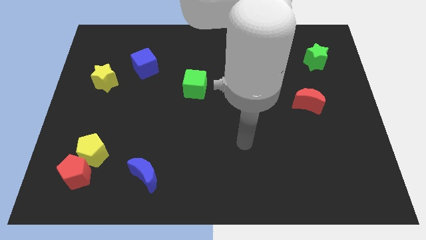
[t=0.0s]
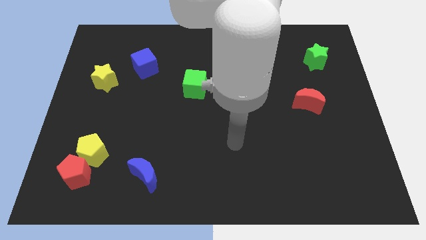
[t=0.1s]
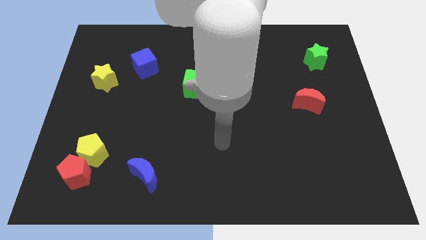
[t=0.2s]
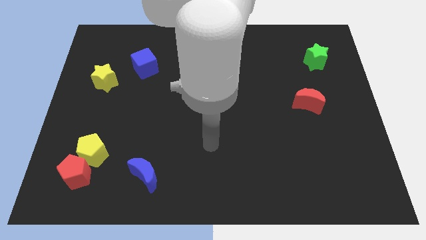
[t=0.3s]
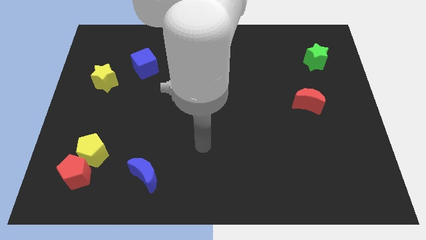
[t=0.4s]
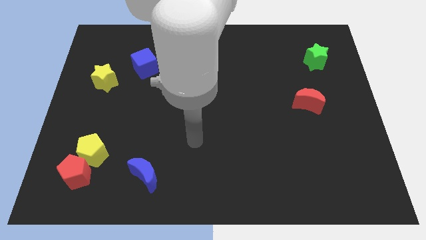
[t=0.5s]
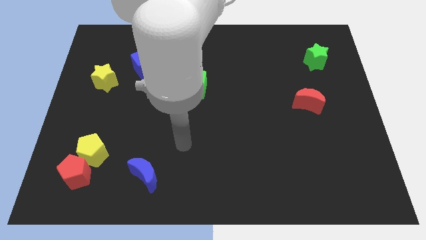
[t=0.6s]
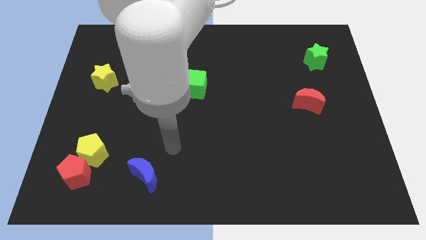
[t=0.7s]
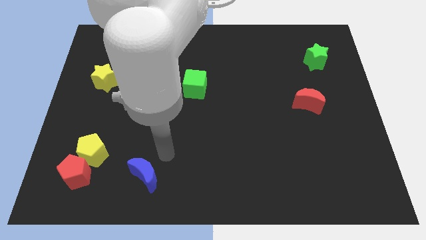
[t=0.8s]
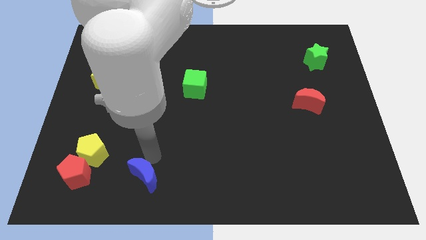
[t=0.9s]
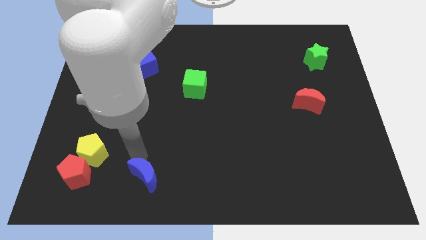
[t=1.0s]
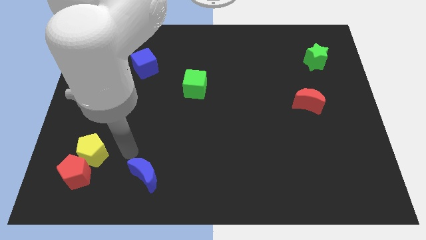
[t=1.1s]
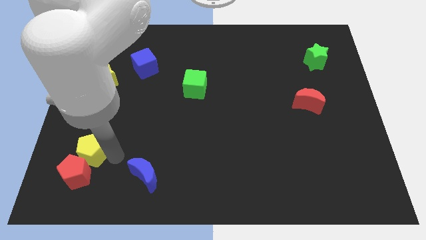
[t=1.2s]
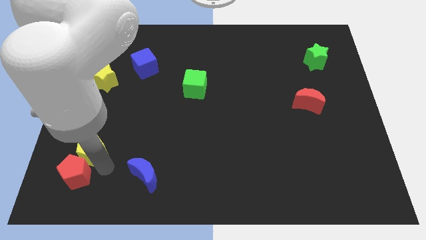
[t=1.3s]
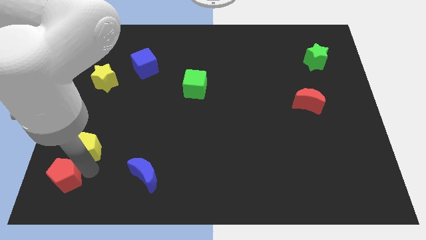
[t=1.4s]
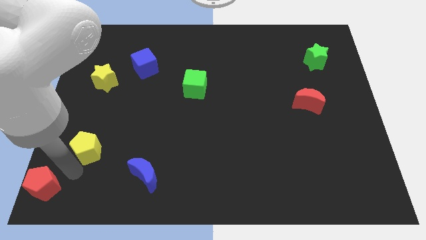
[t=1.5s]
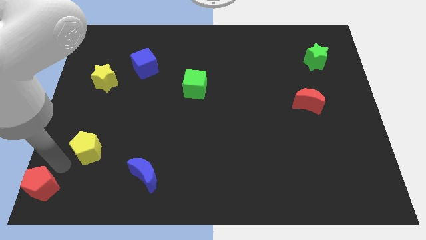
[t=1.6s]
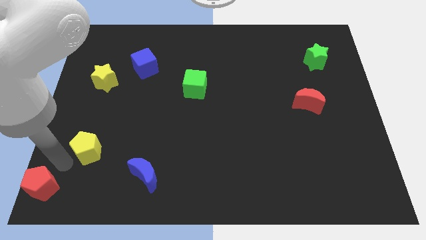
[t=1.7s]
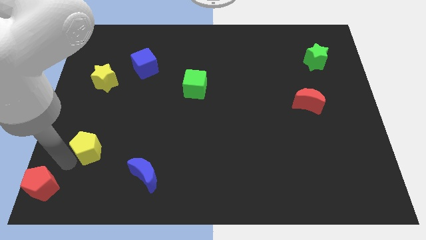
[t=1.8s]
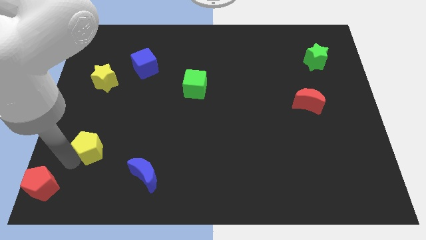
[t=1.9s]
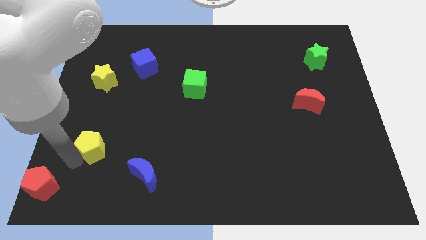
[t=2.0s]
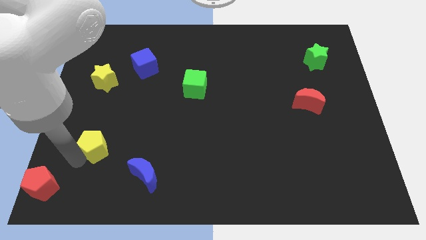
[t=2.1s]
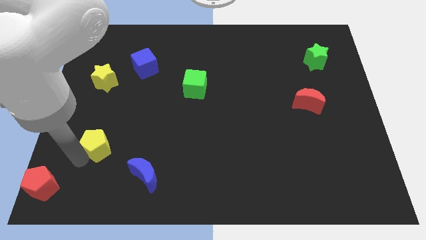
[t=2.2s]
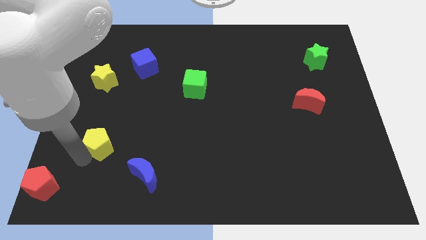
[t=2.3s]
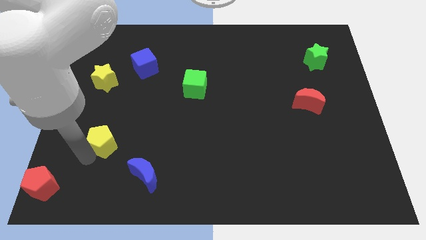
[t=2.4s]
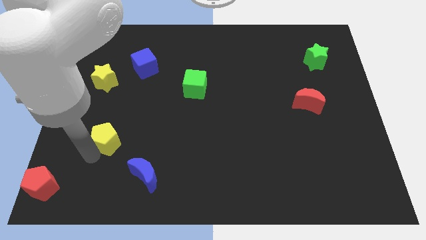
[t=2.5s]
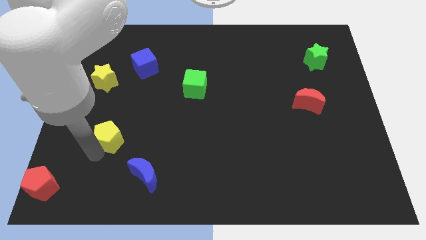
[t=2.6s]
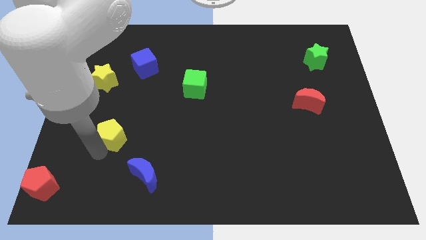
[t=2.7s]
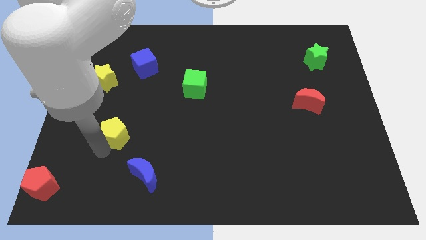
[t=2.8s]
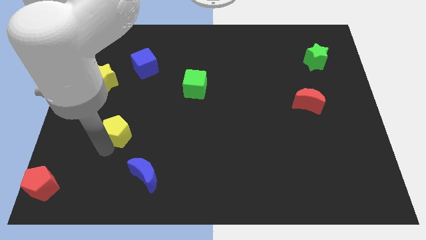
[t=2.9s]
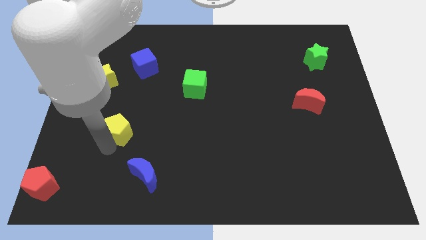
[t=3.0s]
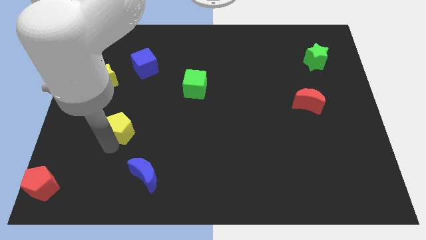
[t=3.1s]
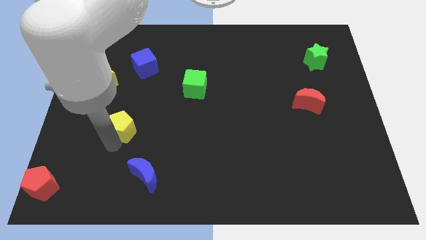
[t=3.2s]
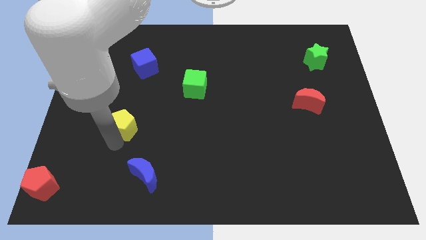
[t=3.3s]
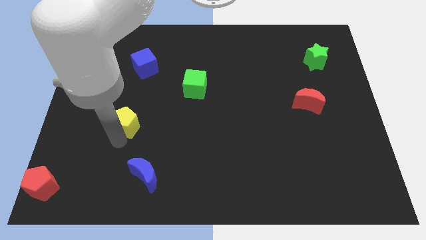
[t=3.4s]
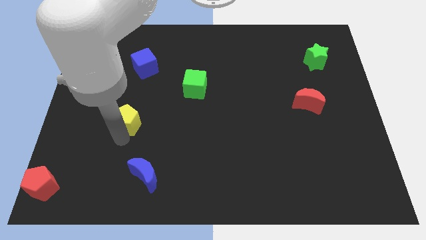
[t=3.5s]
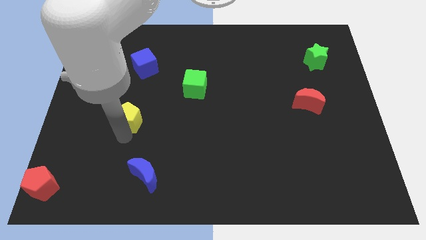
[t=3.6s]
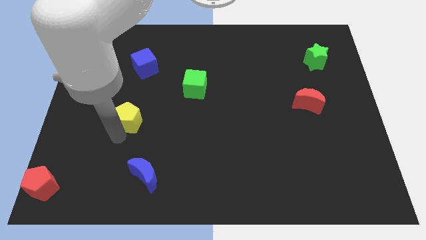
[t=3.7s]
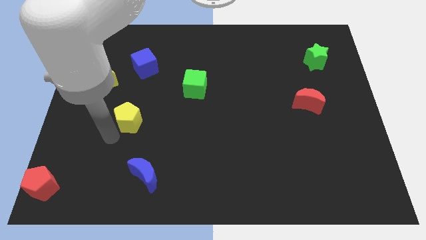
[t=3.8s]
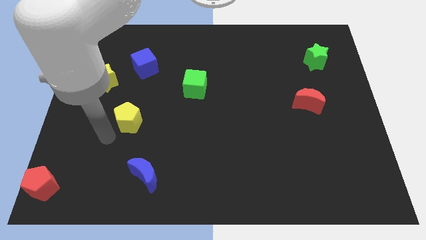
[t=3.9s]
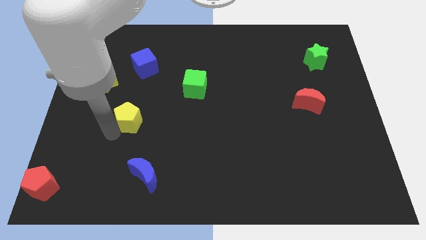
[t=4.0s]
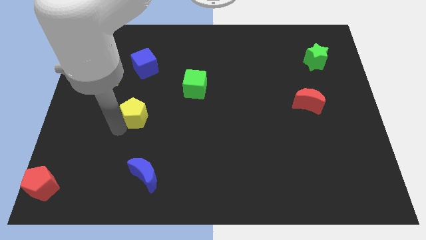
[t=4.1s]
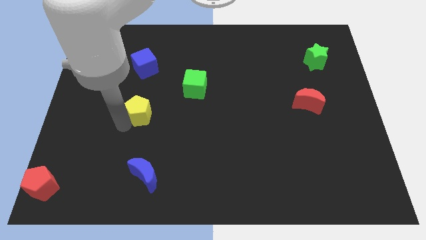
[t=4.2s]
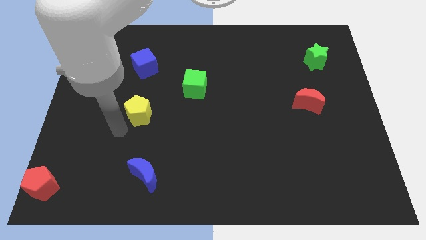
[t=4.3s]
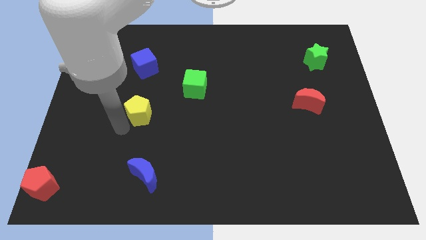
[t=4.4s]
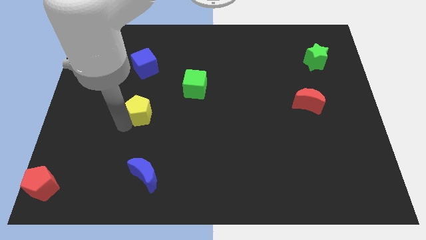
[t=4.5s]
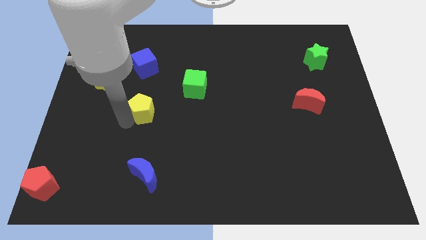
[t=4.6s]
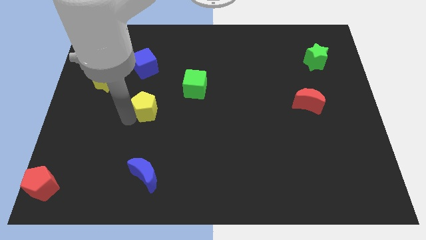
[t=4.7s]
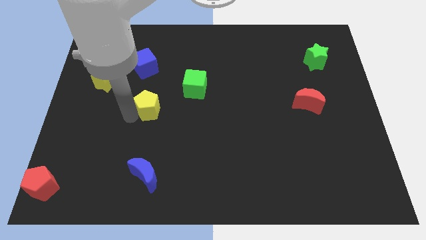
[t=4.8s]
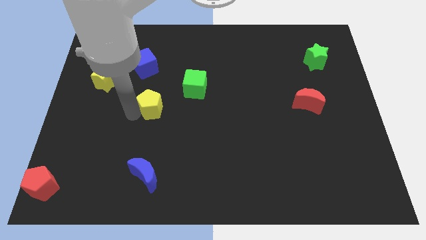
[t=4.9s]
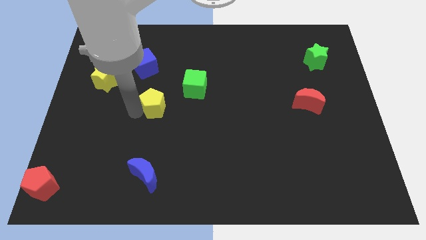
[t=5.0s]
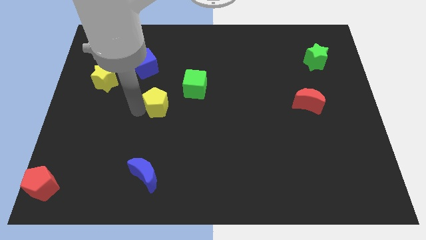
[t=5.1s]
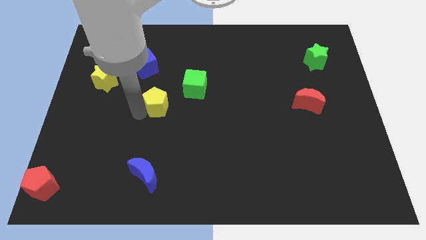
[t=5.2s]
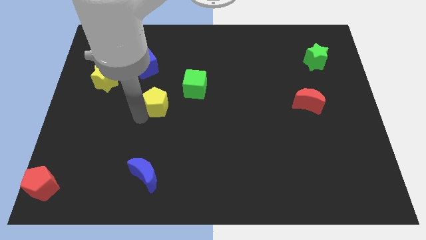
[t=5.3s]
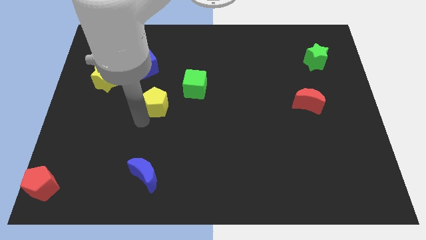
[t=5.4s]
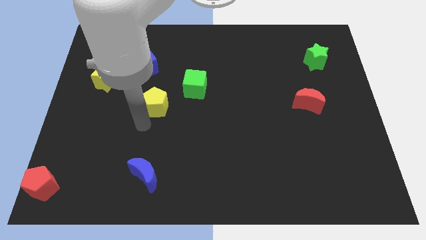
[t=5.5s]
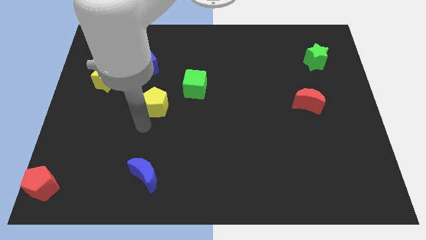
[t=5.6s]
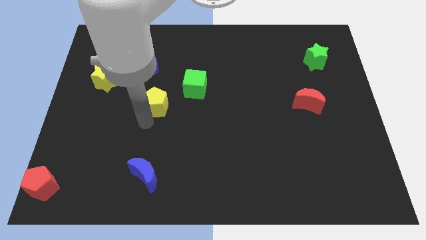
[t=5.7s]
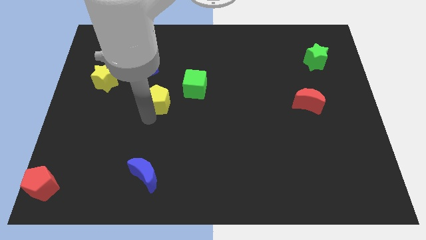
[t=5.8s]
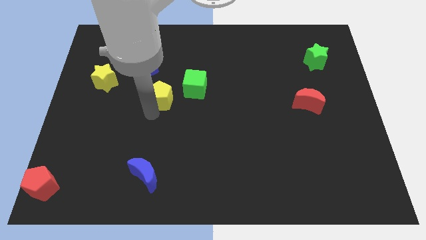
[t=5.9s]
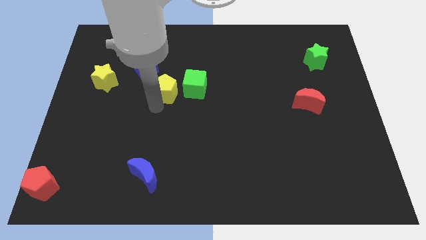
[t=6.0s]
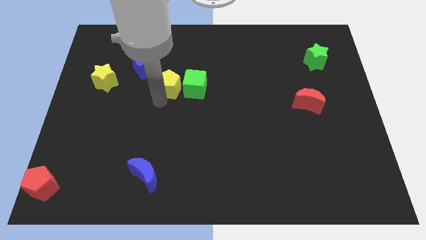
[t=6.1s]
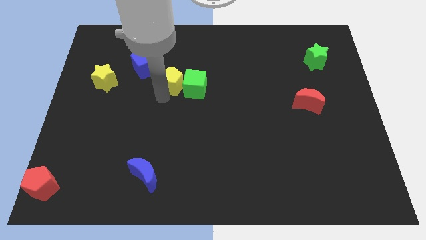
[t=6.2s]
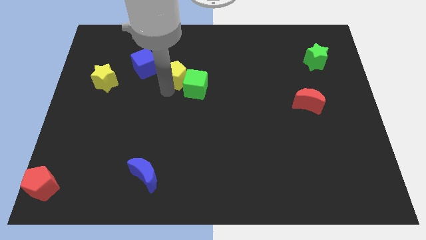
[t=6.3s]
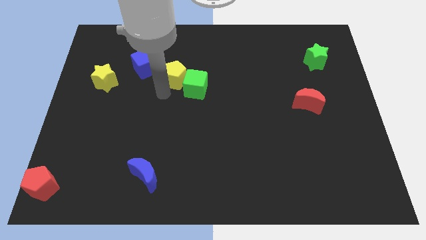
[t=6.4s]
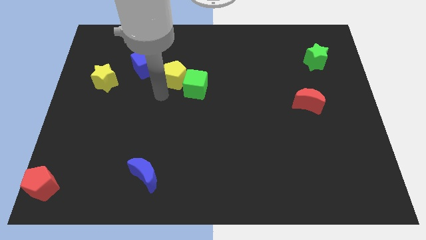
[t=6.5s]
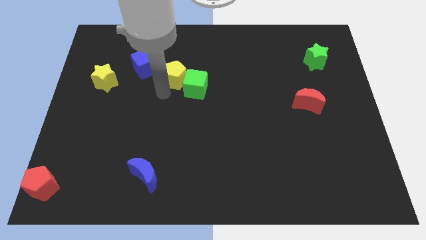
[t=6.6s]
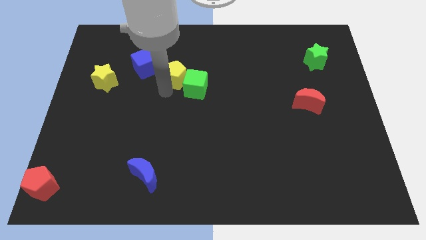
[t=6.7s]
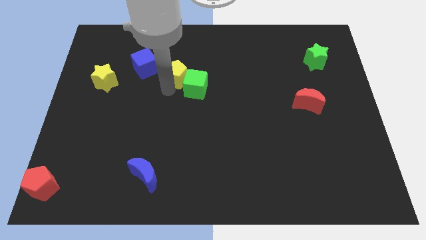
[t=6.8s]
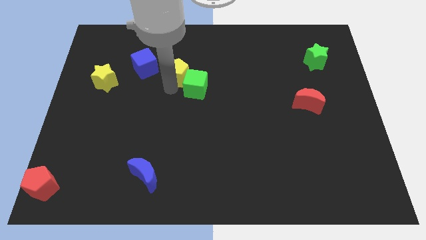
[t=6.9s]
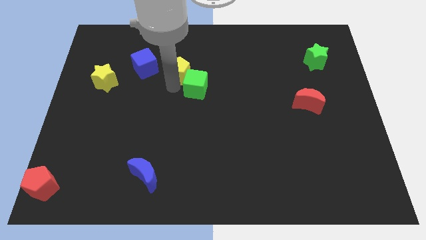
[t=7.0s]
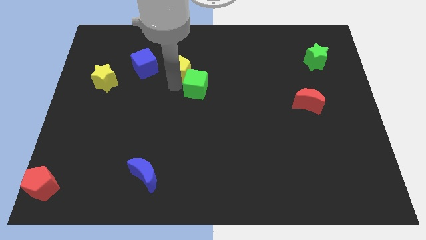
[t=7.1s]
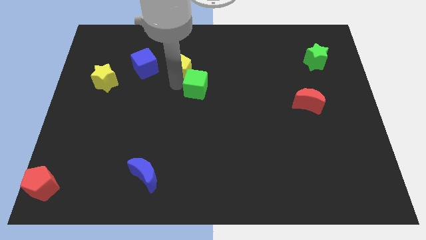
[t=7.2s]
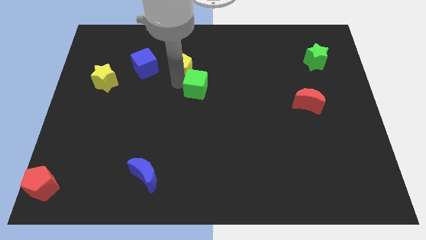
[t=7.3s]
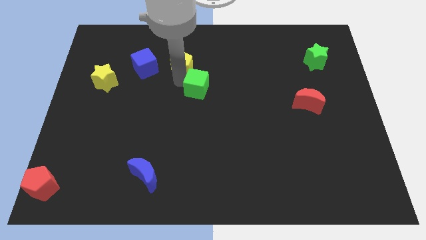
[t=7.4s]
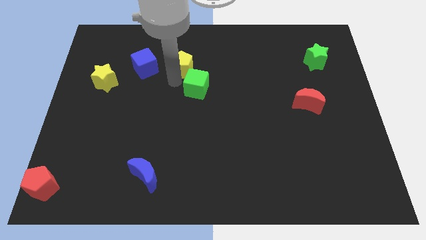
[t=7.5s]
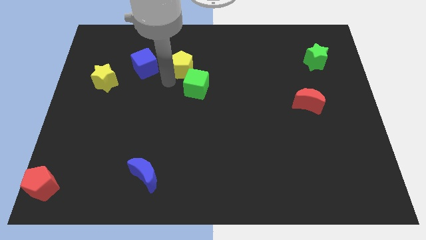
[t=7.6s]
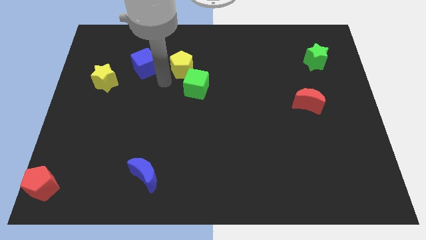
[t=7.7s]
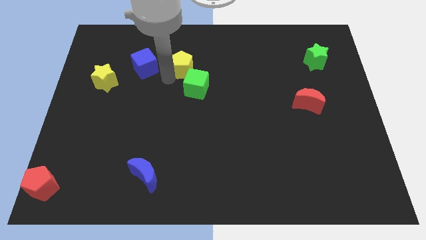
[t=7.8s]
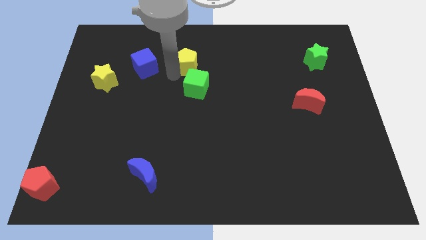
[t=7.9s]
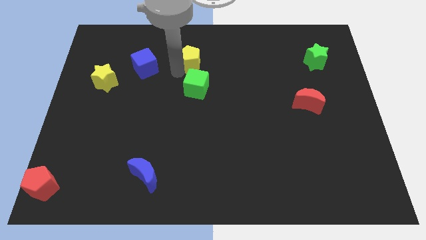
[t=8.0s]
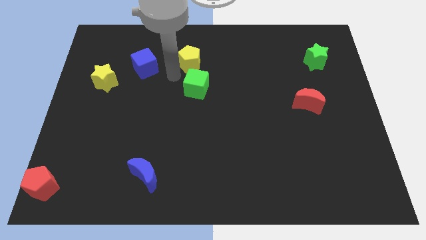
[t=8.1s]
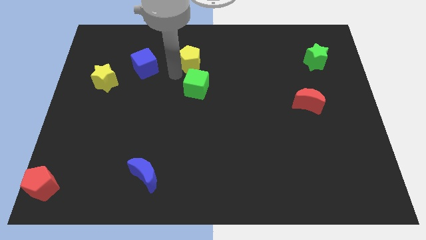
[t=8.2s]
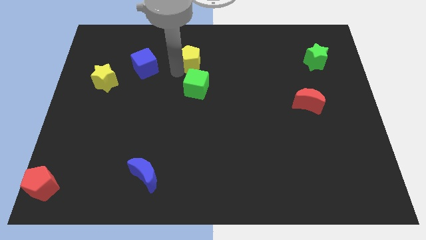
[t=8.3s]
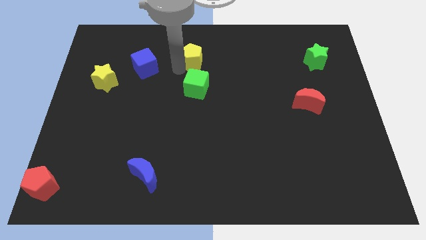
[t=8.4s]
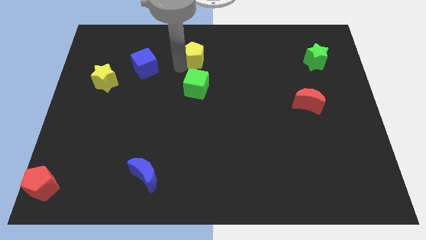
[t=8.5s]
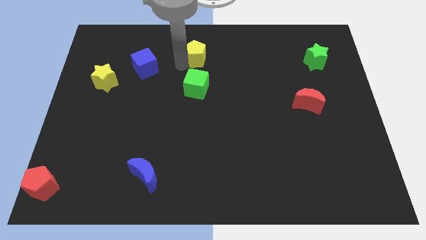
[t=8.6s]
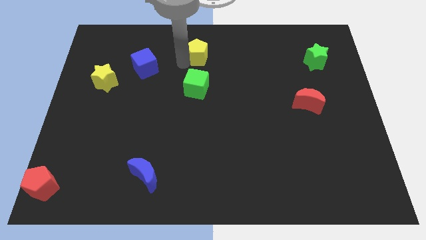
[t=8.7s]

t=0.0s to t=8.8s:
slide the yellow pentagon to the top
